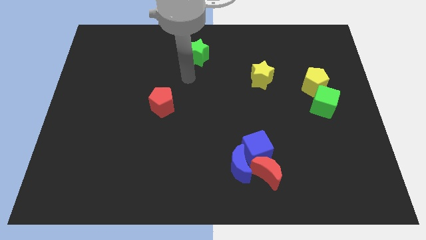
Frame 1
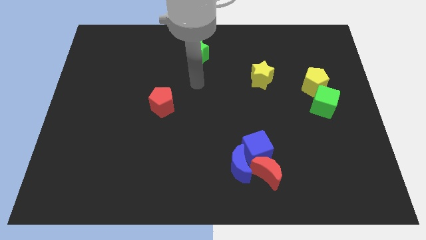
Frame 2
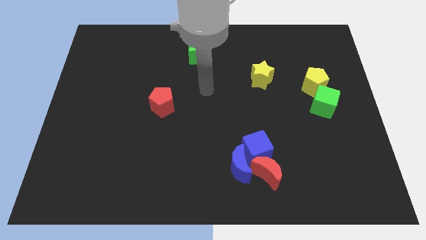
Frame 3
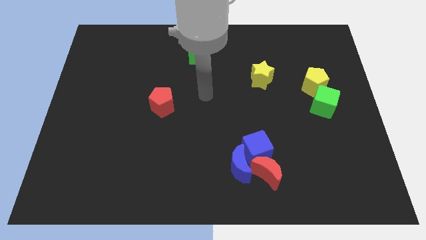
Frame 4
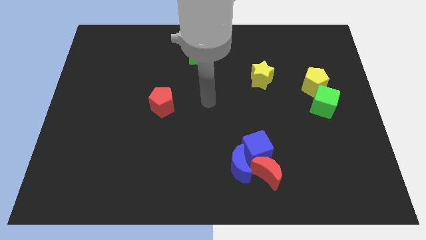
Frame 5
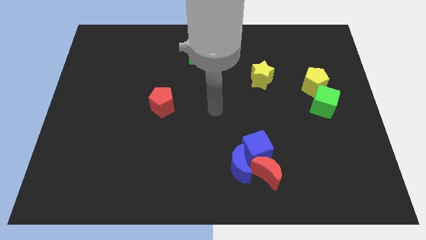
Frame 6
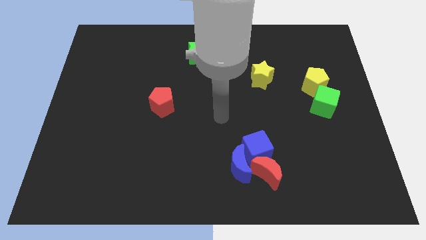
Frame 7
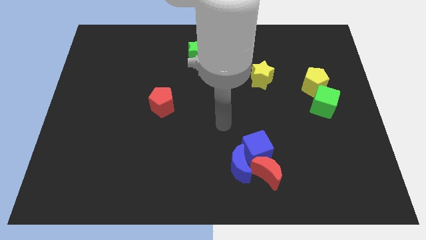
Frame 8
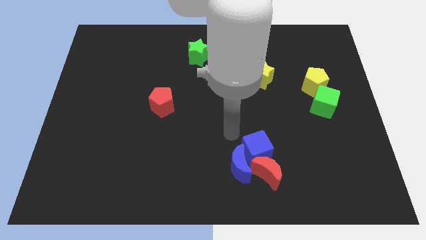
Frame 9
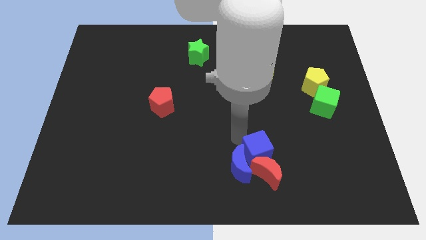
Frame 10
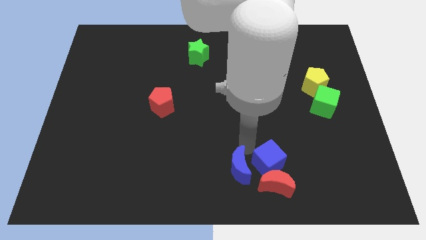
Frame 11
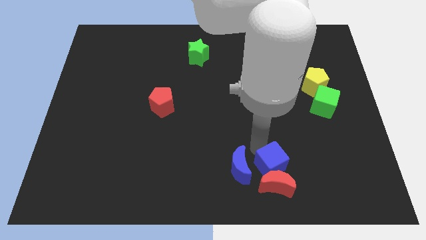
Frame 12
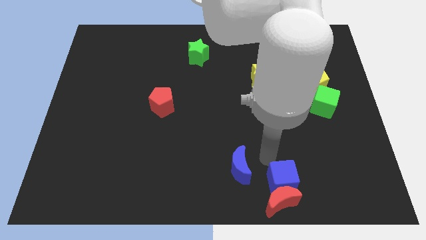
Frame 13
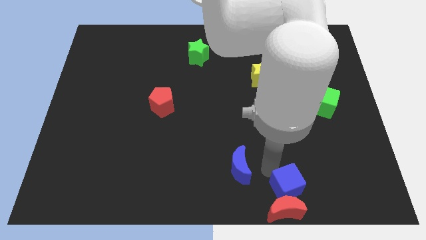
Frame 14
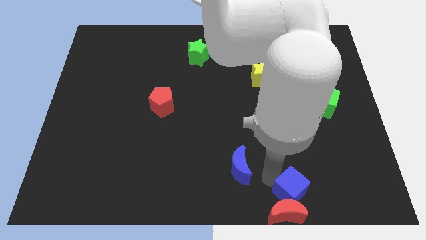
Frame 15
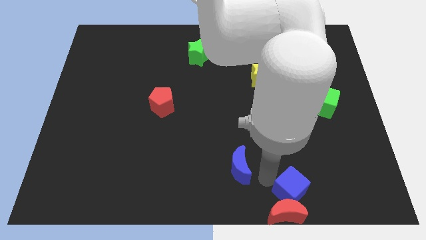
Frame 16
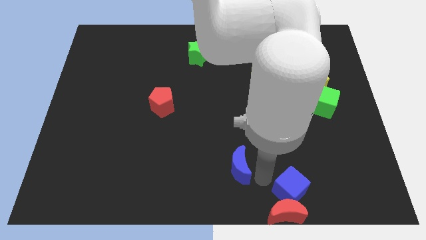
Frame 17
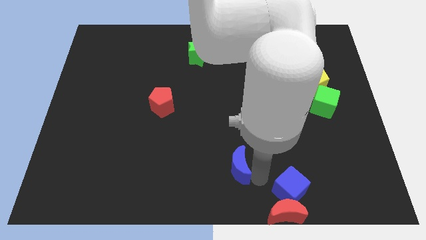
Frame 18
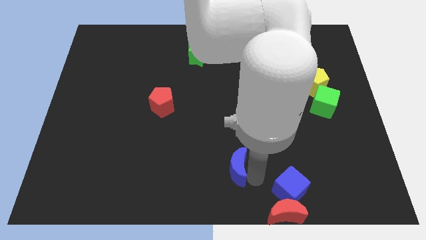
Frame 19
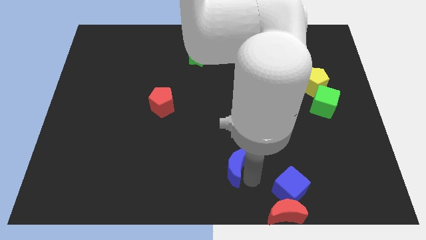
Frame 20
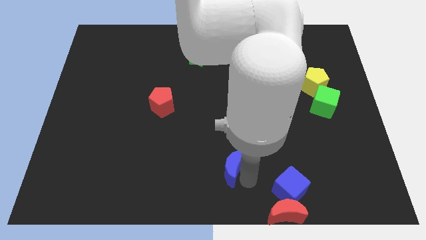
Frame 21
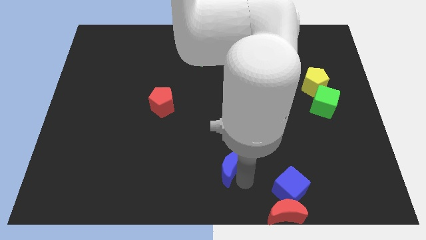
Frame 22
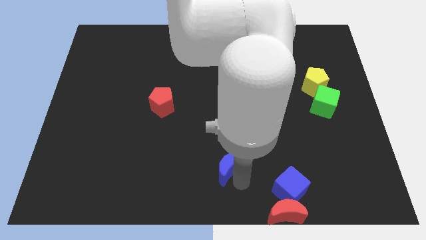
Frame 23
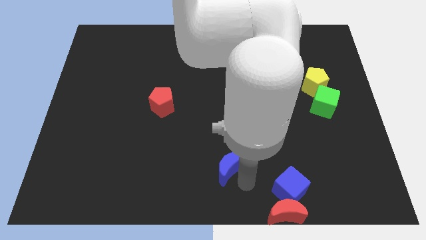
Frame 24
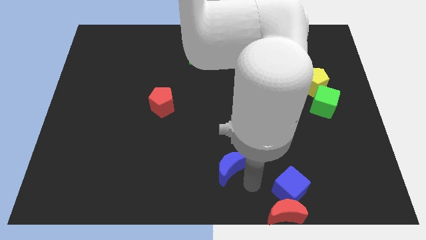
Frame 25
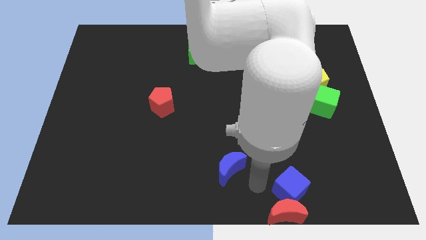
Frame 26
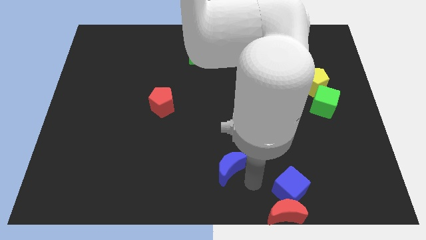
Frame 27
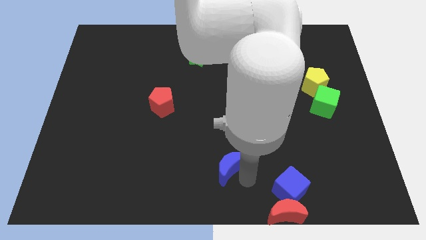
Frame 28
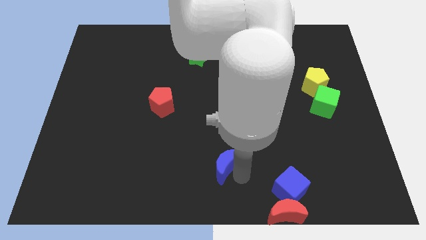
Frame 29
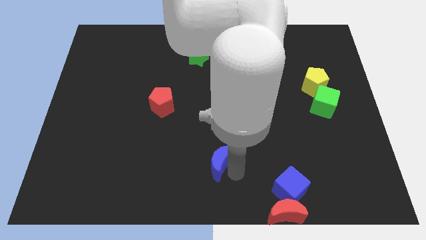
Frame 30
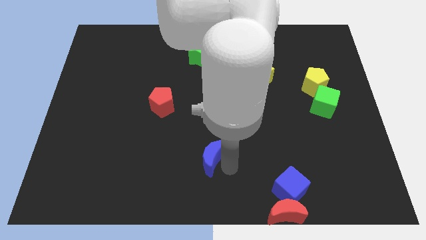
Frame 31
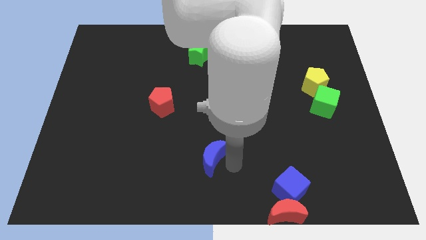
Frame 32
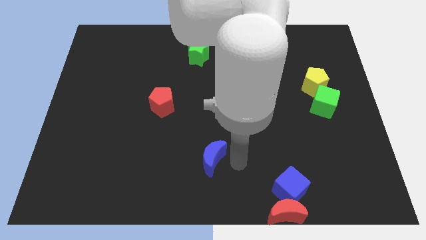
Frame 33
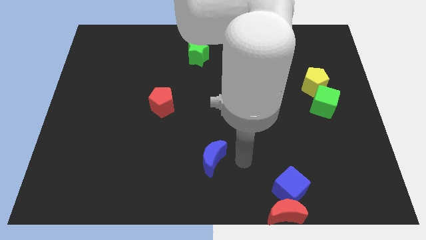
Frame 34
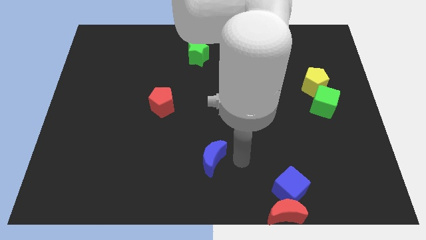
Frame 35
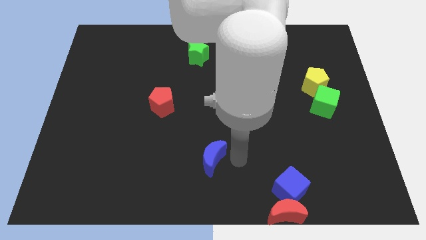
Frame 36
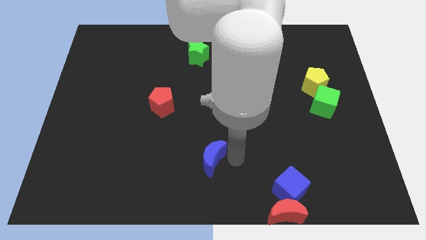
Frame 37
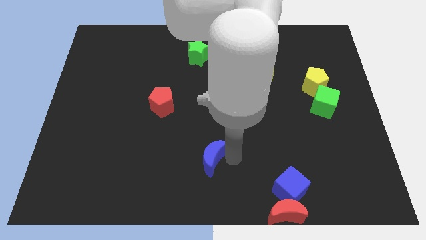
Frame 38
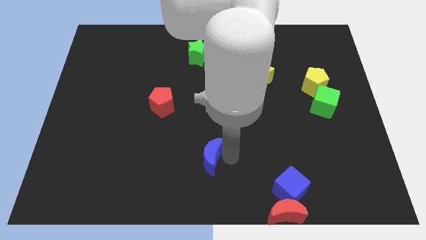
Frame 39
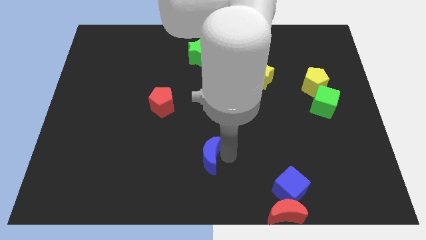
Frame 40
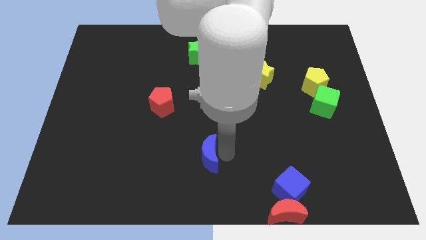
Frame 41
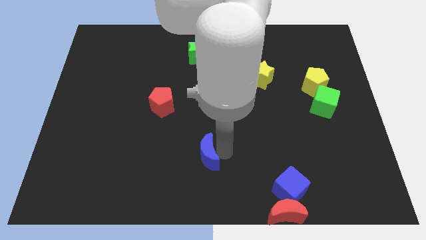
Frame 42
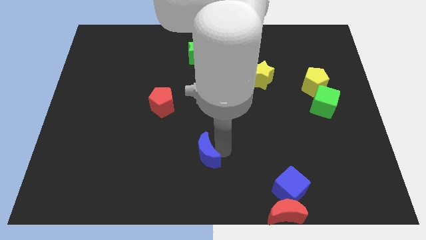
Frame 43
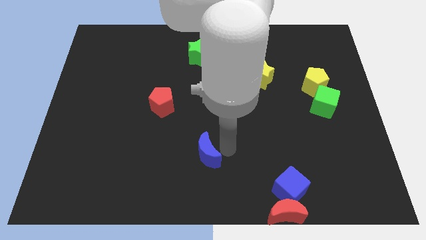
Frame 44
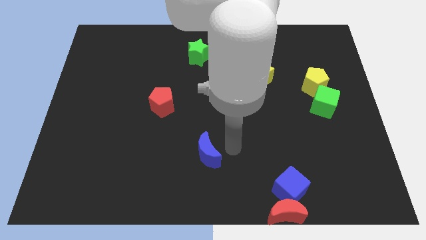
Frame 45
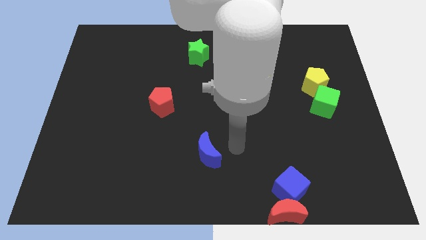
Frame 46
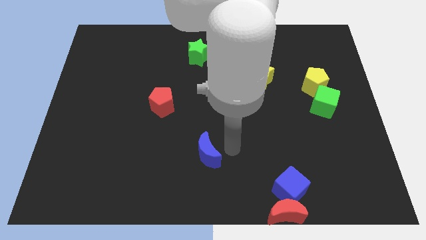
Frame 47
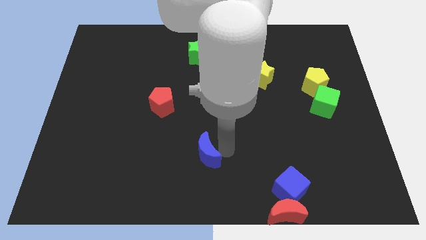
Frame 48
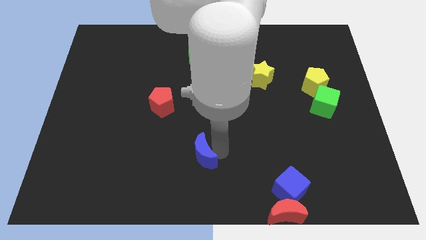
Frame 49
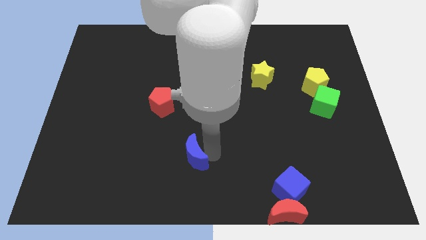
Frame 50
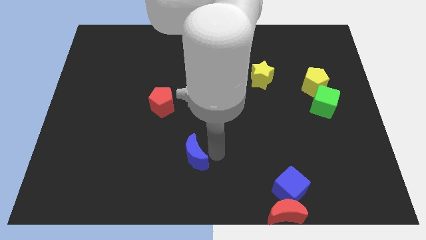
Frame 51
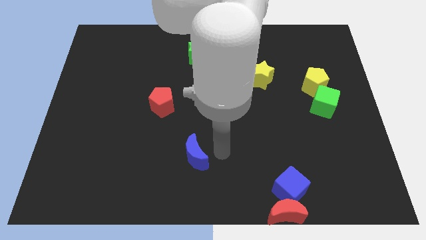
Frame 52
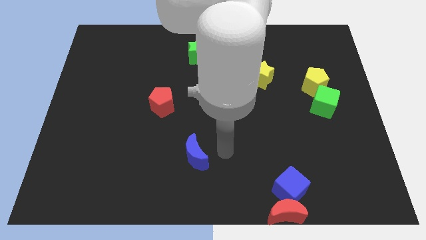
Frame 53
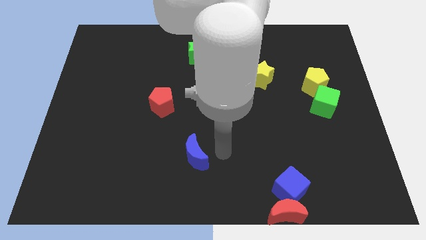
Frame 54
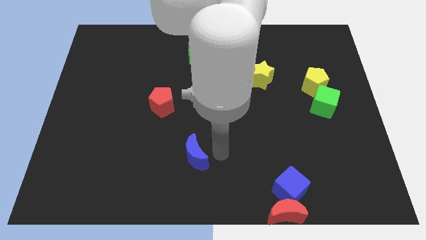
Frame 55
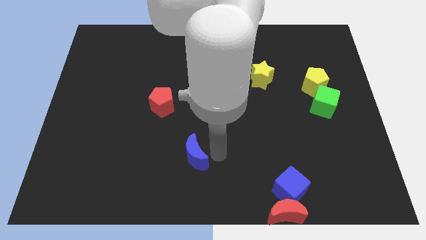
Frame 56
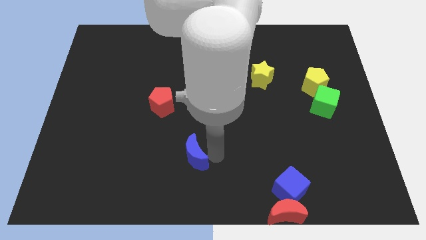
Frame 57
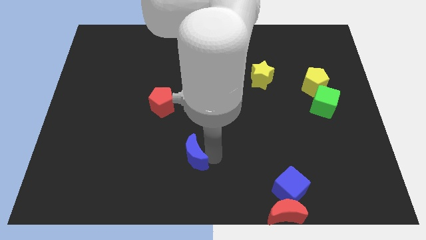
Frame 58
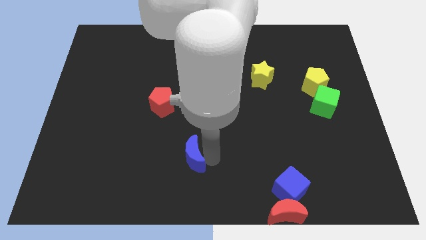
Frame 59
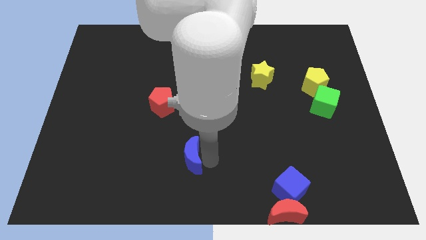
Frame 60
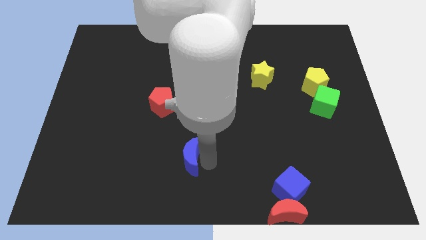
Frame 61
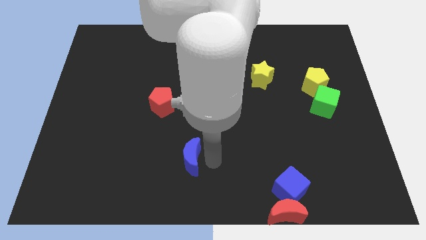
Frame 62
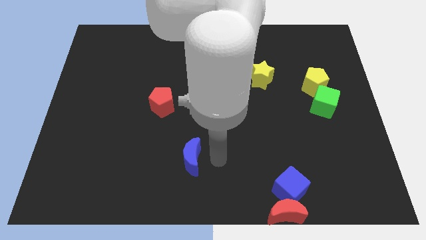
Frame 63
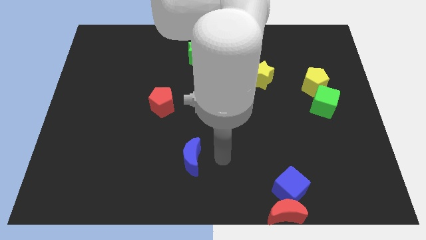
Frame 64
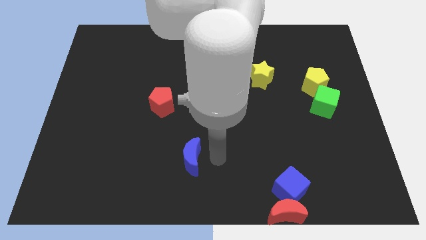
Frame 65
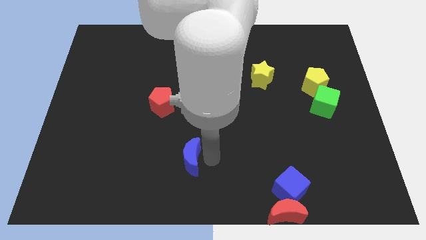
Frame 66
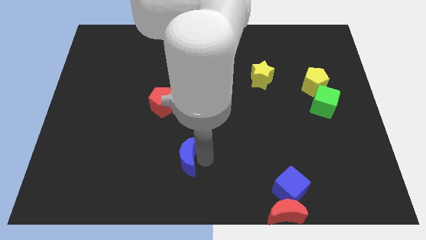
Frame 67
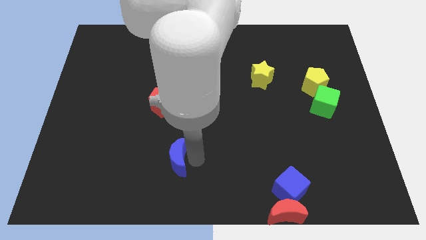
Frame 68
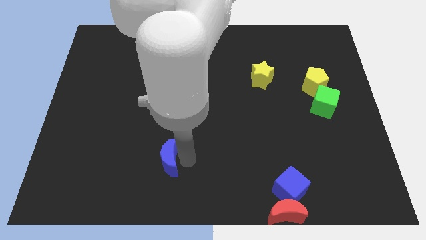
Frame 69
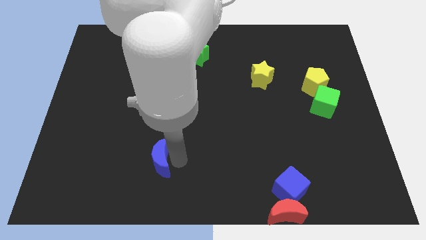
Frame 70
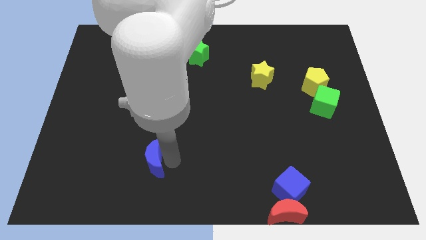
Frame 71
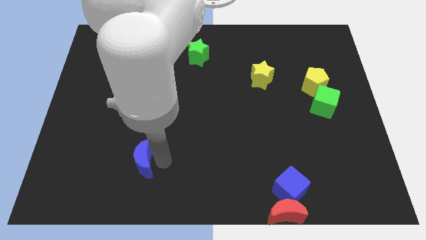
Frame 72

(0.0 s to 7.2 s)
move the blue moon to the left

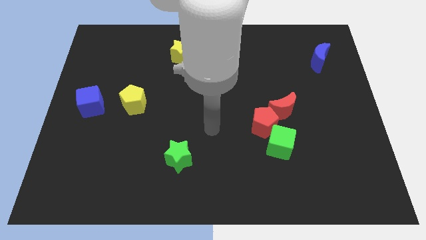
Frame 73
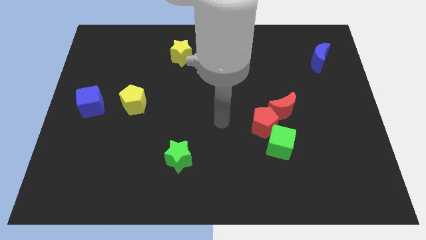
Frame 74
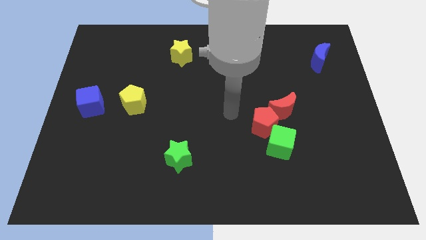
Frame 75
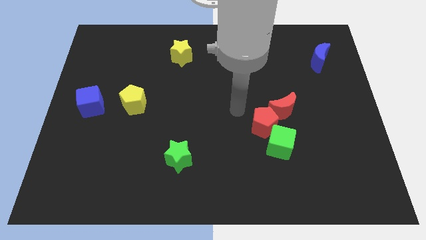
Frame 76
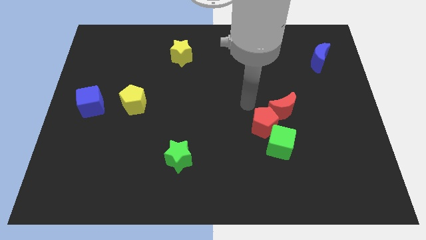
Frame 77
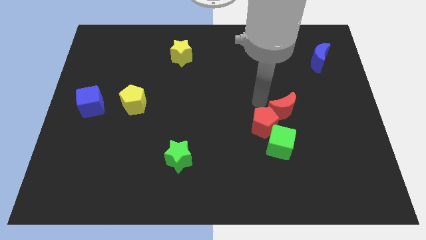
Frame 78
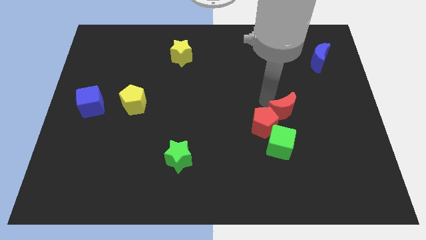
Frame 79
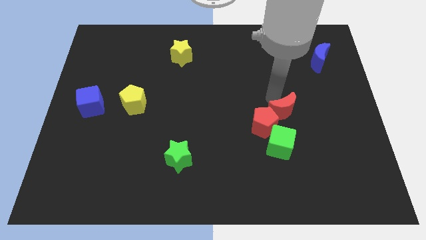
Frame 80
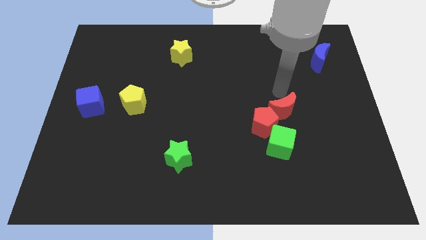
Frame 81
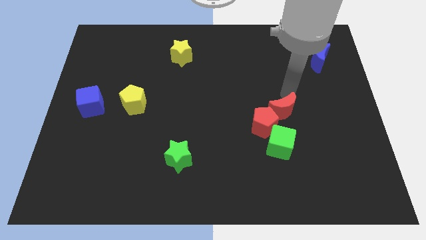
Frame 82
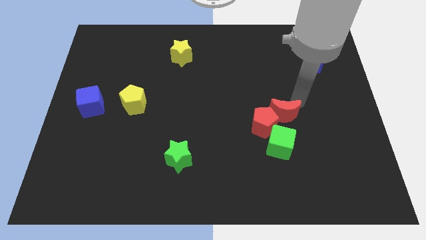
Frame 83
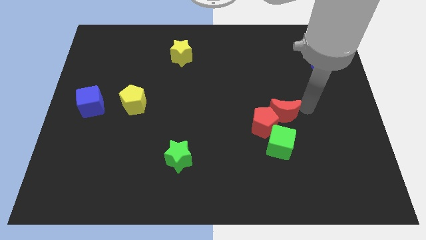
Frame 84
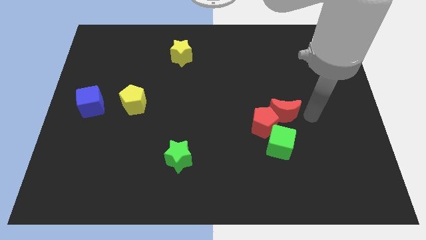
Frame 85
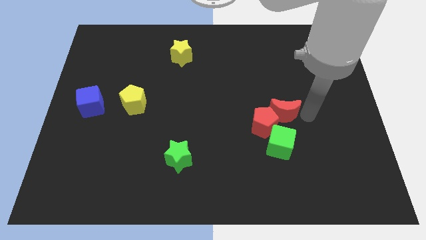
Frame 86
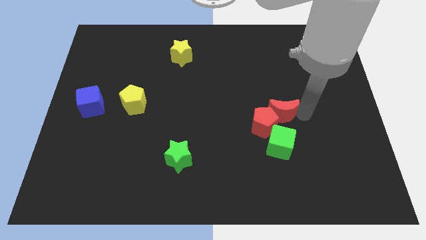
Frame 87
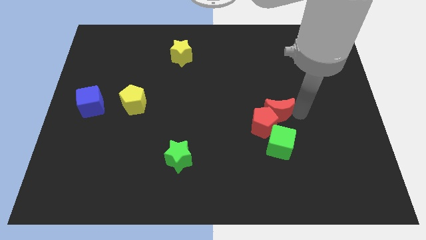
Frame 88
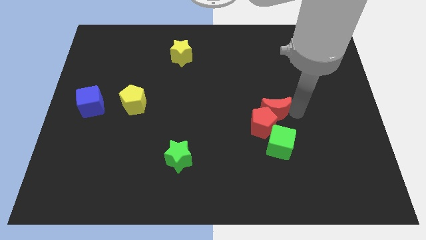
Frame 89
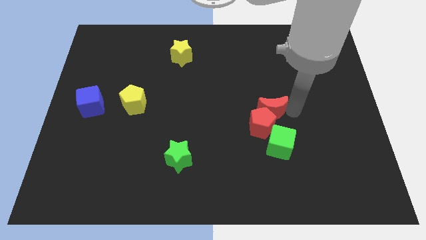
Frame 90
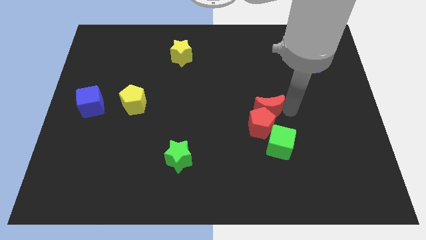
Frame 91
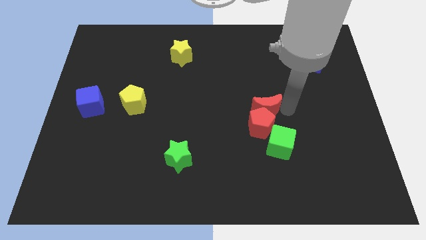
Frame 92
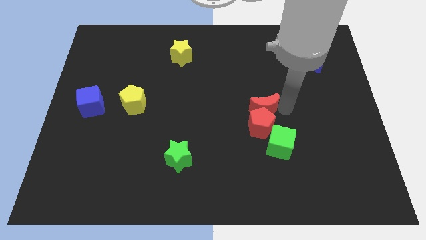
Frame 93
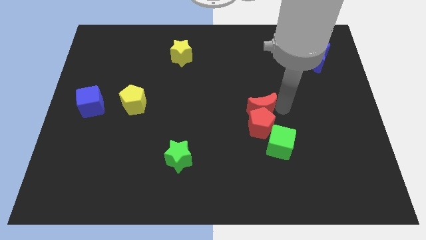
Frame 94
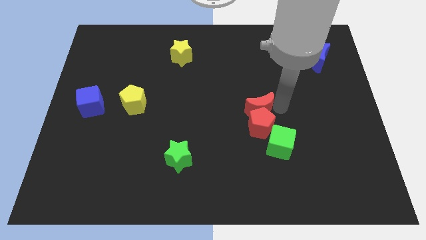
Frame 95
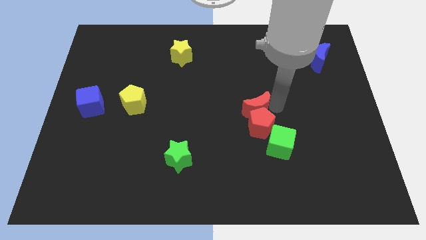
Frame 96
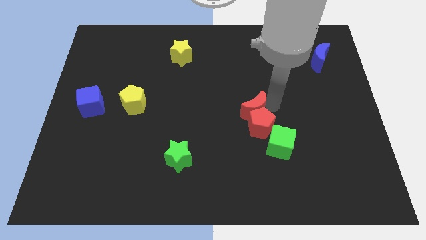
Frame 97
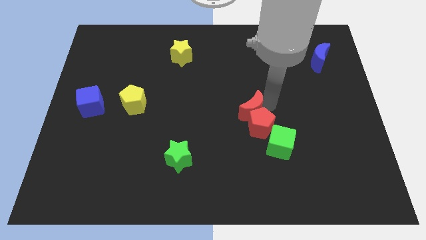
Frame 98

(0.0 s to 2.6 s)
slide the red moon to the left a little
